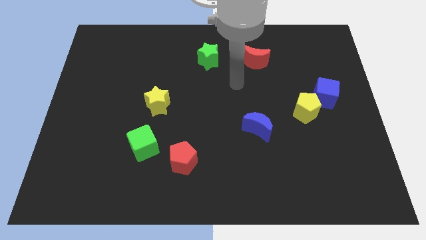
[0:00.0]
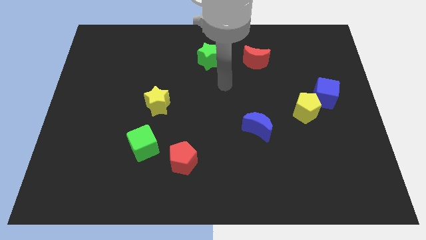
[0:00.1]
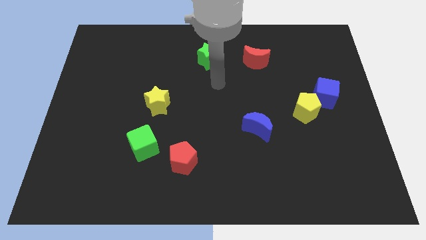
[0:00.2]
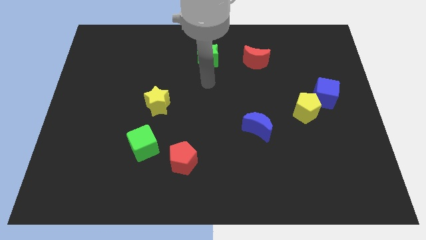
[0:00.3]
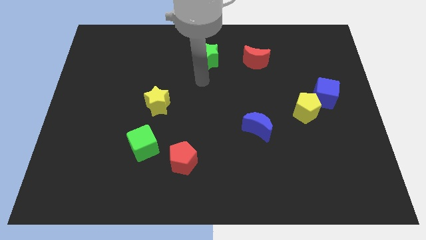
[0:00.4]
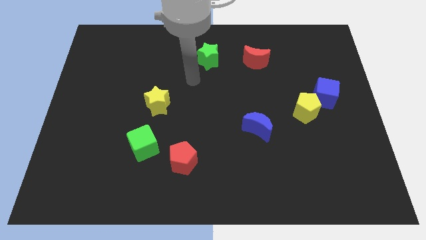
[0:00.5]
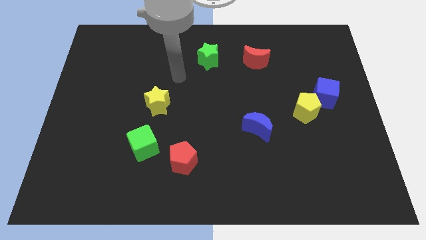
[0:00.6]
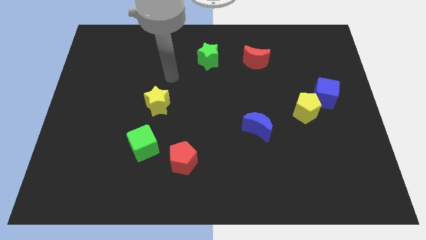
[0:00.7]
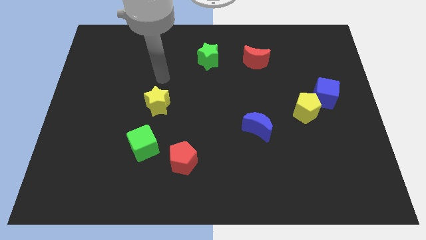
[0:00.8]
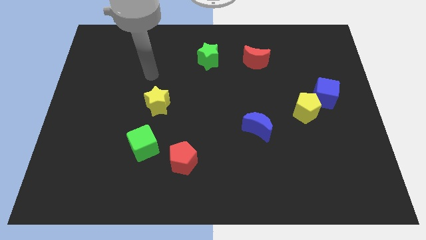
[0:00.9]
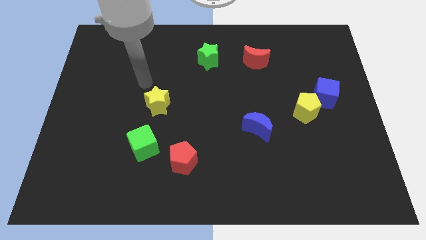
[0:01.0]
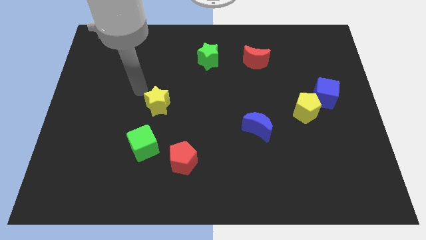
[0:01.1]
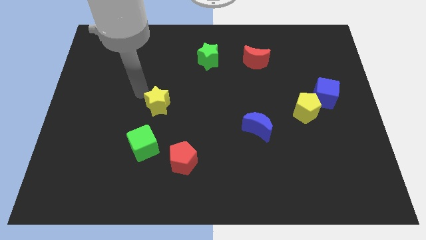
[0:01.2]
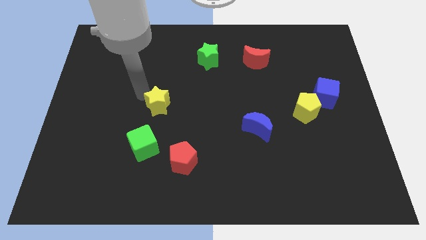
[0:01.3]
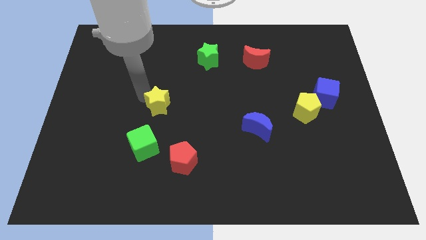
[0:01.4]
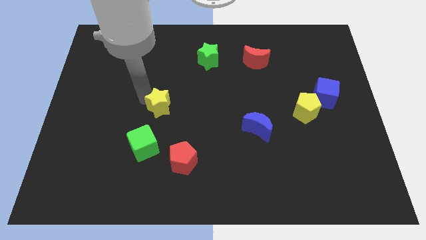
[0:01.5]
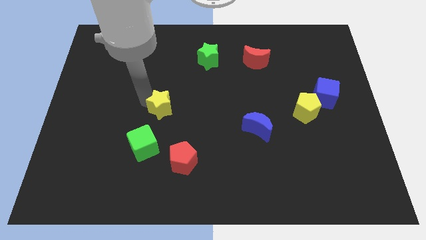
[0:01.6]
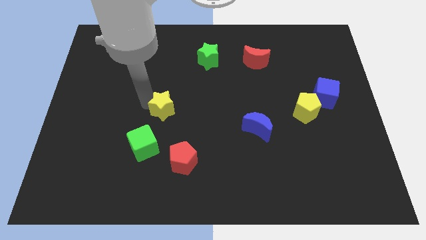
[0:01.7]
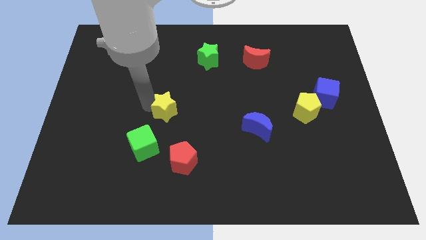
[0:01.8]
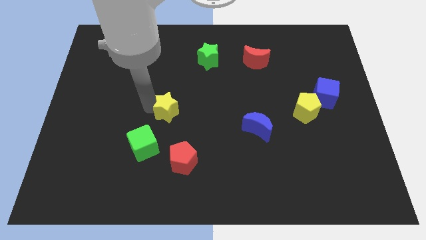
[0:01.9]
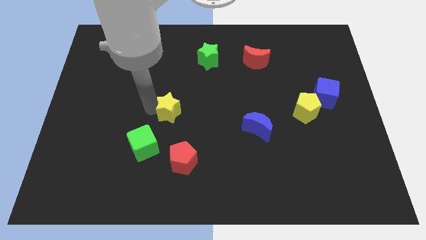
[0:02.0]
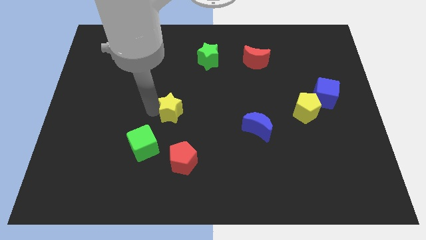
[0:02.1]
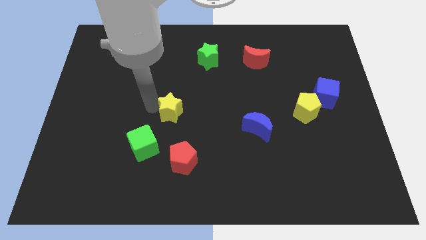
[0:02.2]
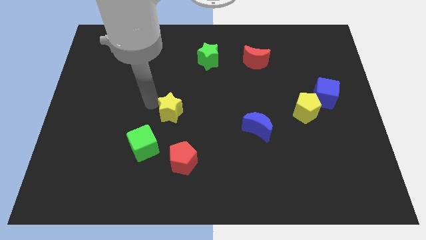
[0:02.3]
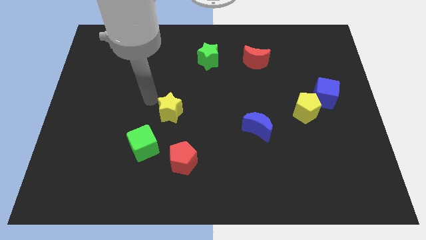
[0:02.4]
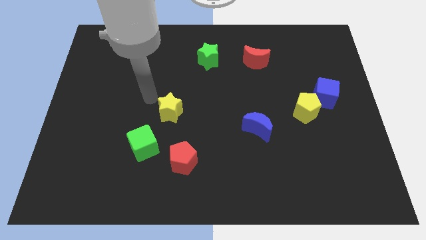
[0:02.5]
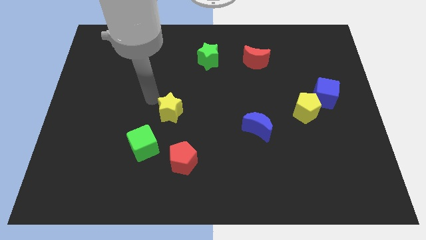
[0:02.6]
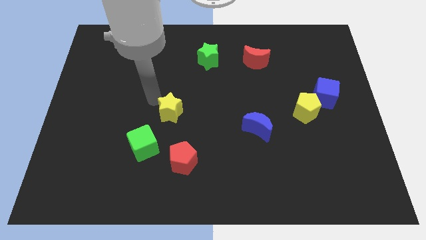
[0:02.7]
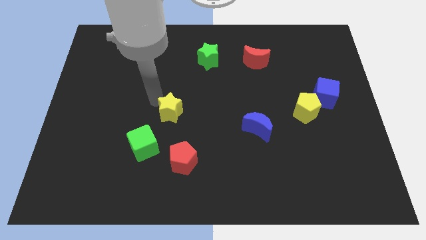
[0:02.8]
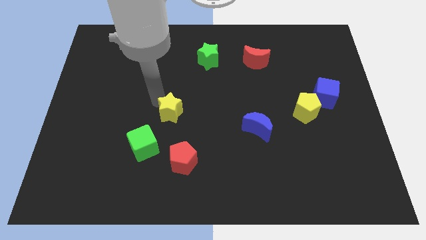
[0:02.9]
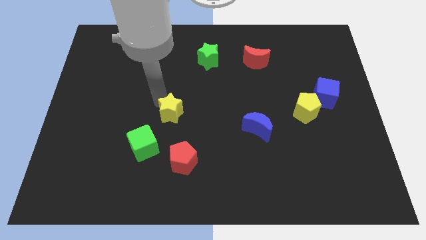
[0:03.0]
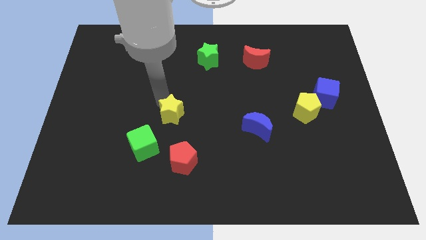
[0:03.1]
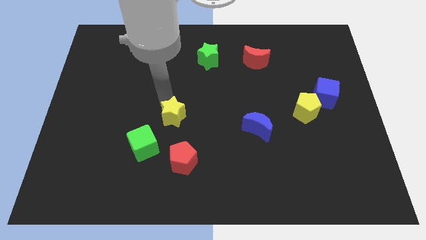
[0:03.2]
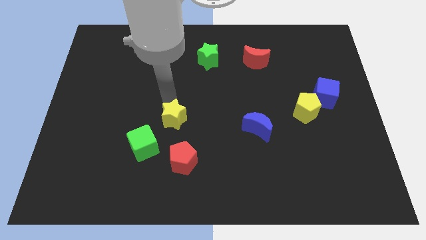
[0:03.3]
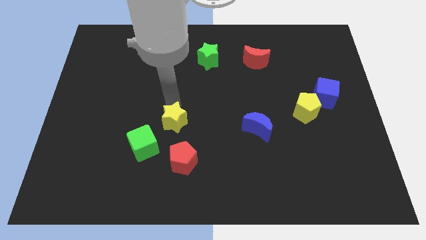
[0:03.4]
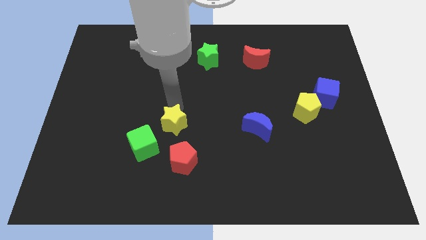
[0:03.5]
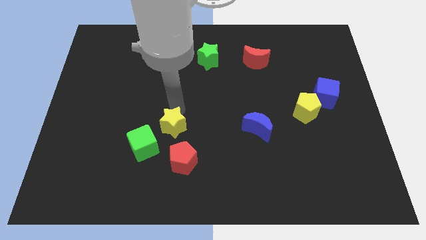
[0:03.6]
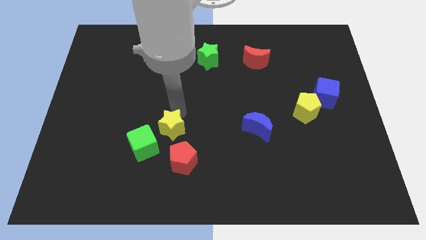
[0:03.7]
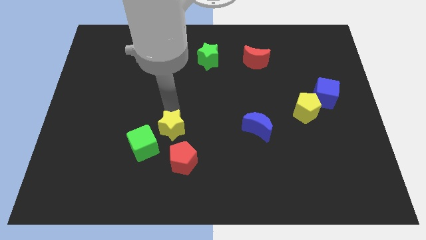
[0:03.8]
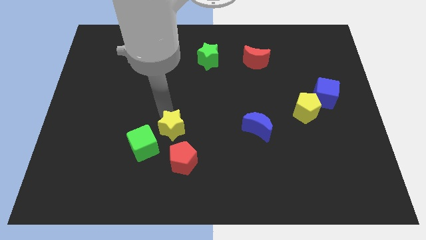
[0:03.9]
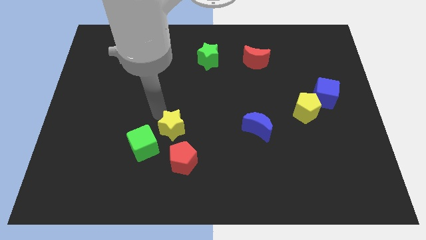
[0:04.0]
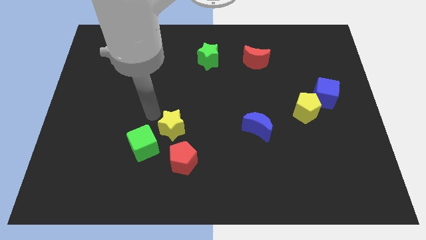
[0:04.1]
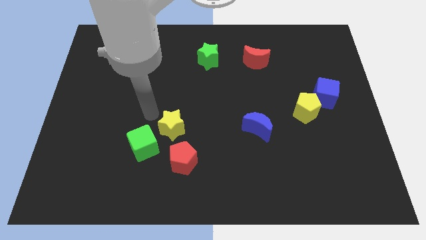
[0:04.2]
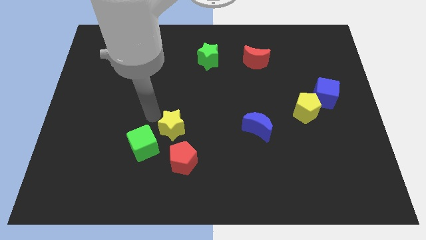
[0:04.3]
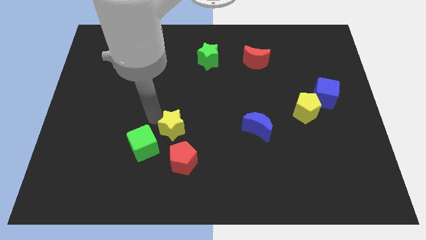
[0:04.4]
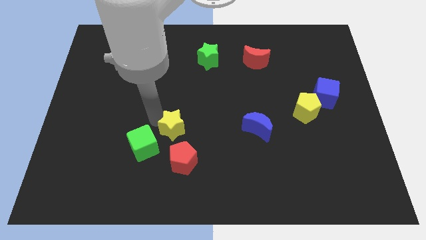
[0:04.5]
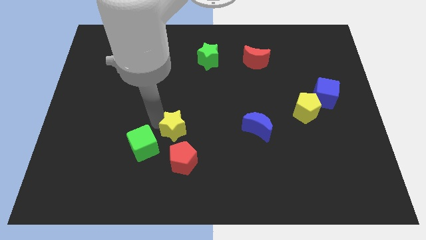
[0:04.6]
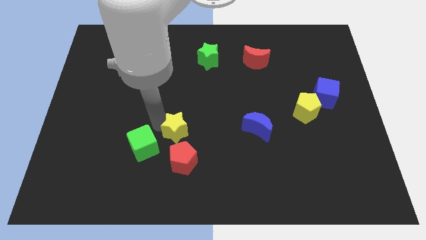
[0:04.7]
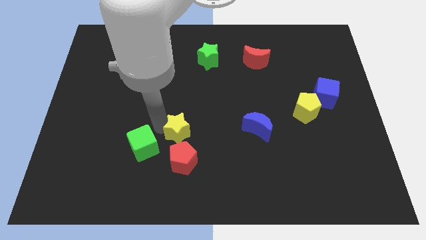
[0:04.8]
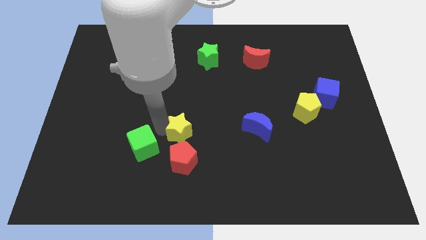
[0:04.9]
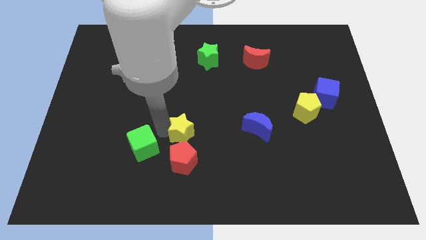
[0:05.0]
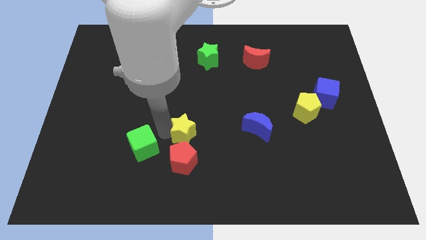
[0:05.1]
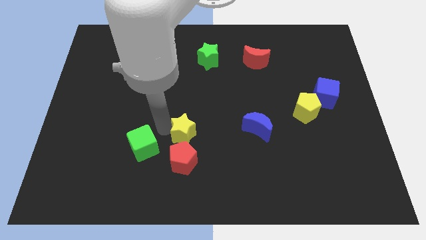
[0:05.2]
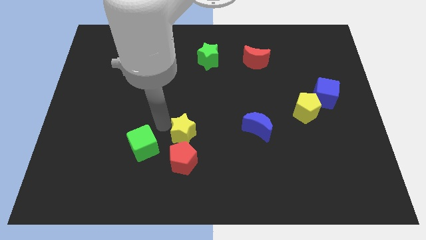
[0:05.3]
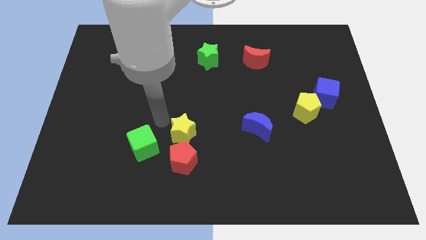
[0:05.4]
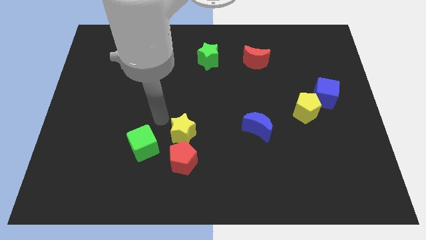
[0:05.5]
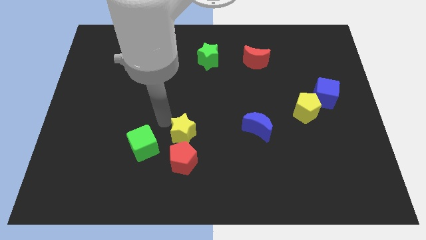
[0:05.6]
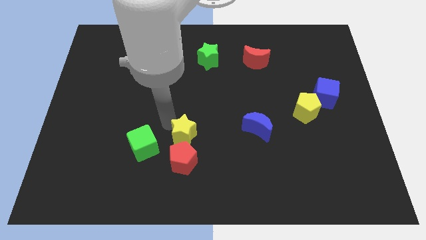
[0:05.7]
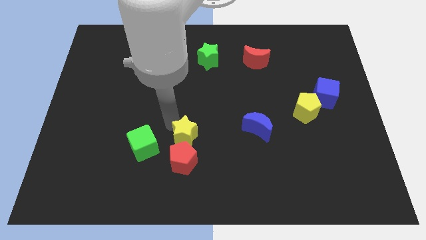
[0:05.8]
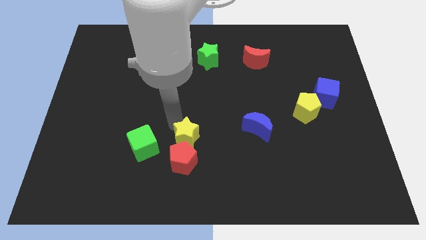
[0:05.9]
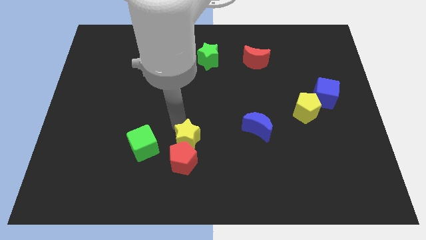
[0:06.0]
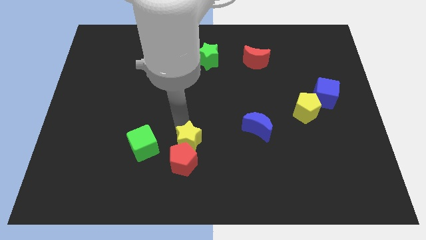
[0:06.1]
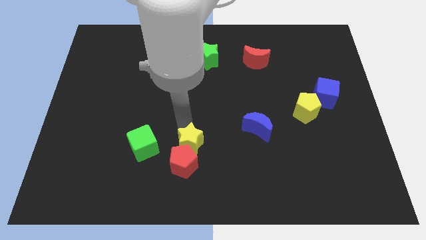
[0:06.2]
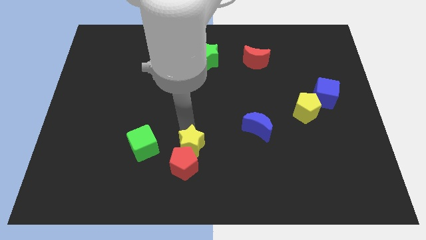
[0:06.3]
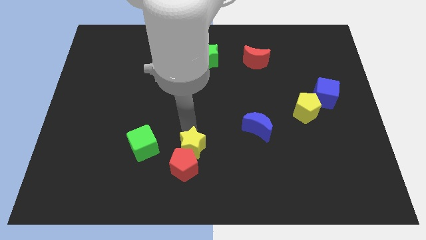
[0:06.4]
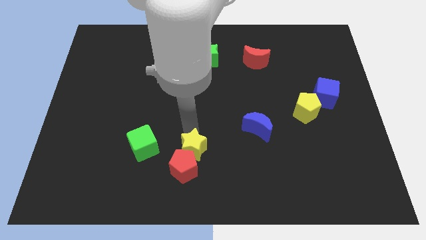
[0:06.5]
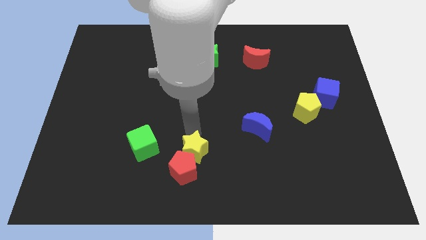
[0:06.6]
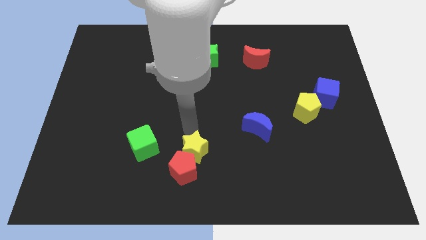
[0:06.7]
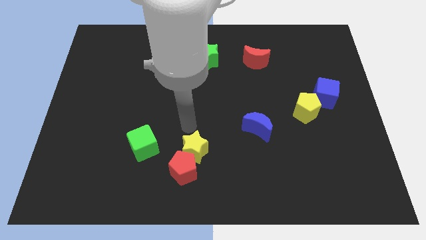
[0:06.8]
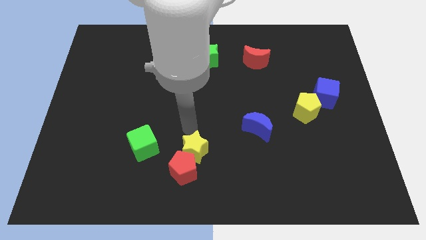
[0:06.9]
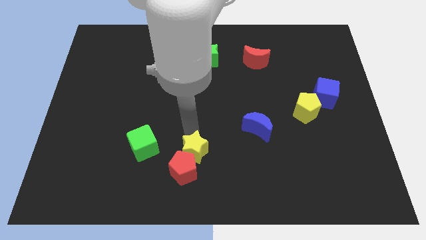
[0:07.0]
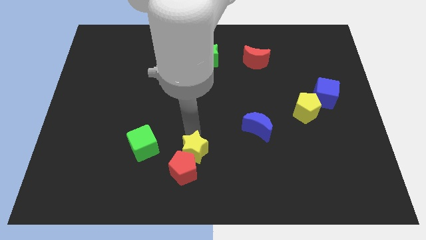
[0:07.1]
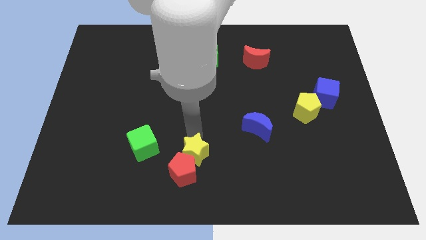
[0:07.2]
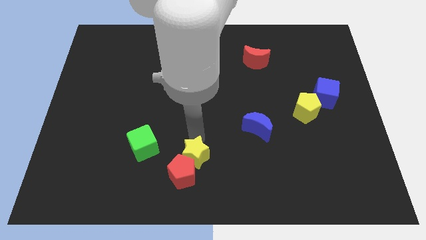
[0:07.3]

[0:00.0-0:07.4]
move the yellow star to the bottom
